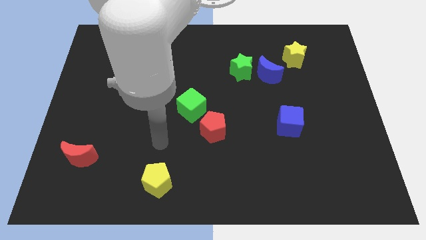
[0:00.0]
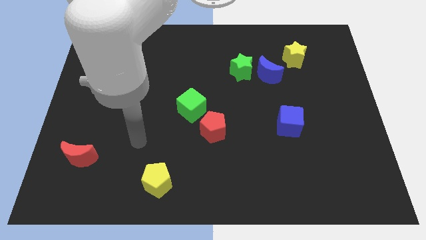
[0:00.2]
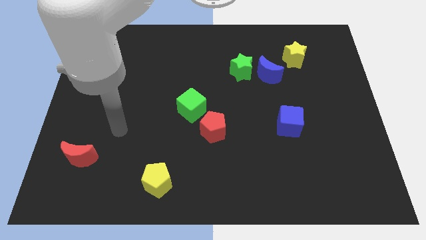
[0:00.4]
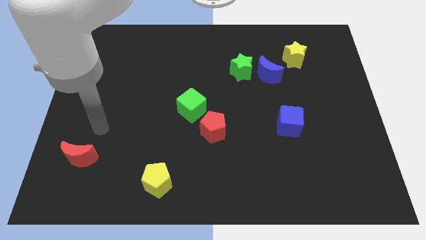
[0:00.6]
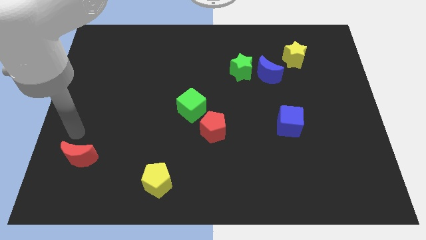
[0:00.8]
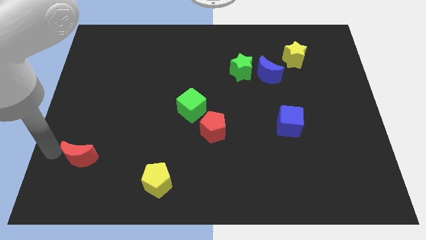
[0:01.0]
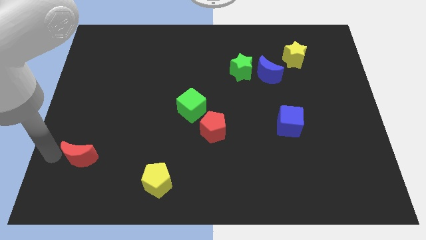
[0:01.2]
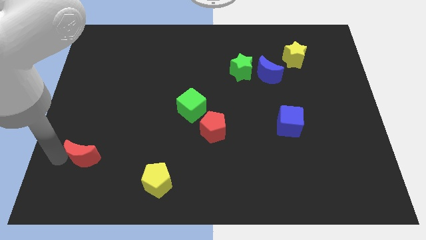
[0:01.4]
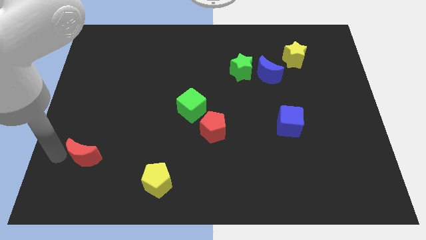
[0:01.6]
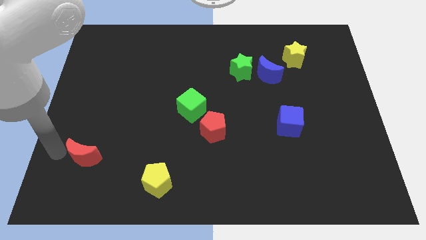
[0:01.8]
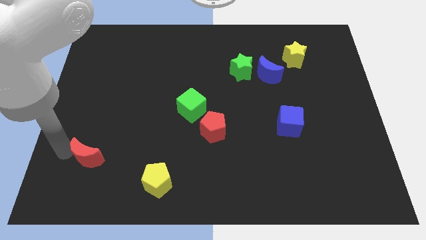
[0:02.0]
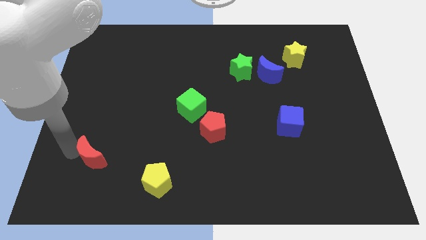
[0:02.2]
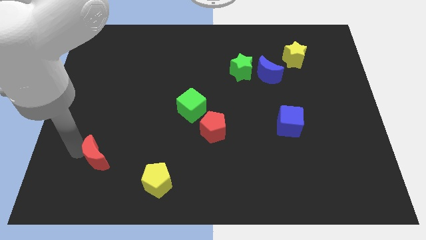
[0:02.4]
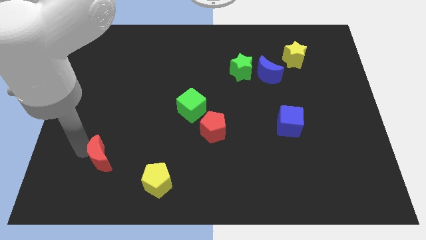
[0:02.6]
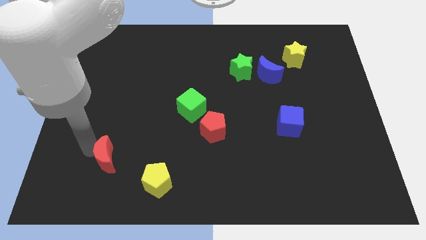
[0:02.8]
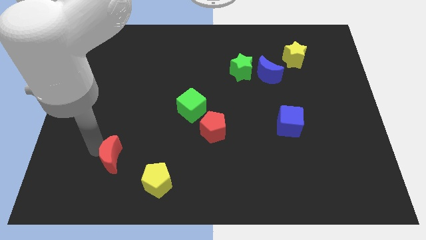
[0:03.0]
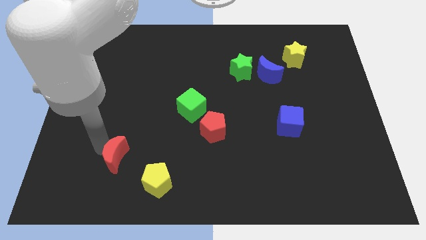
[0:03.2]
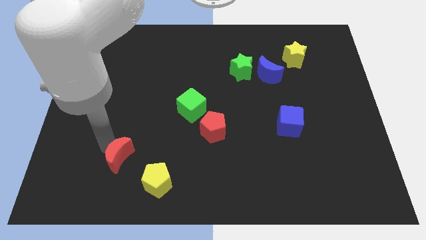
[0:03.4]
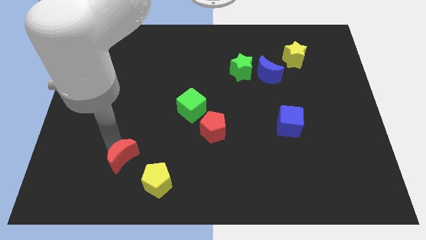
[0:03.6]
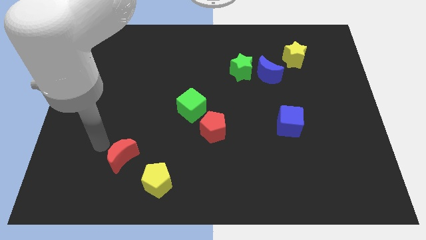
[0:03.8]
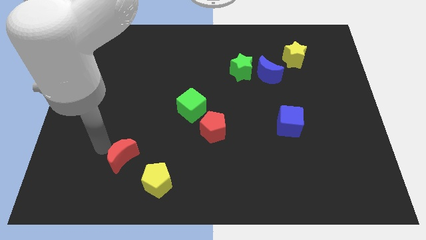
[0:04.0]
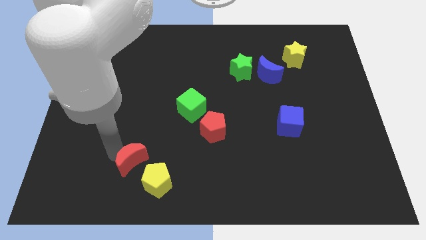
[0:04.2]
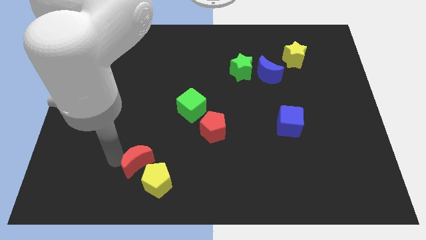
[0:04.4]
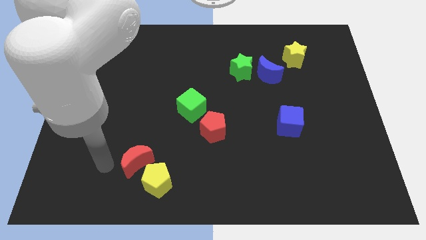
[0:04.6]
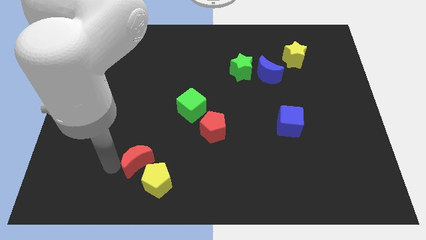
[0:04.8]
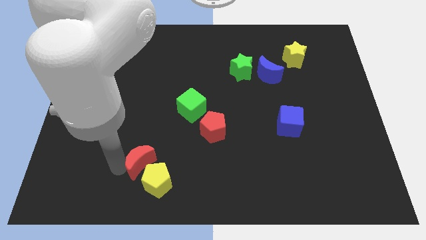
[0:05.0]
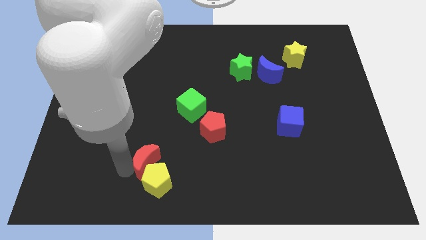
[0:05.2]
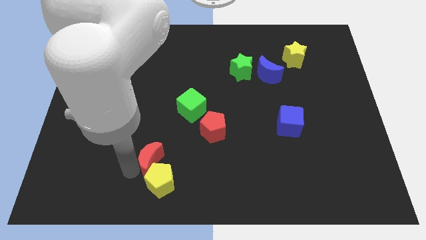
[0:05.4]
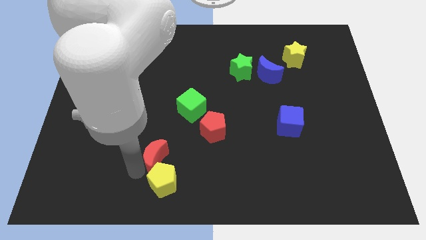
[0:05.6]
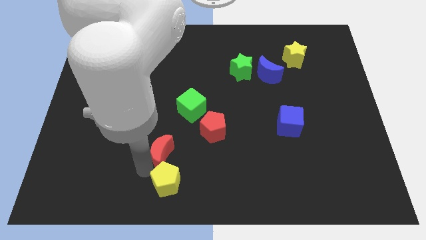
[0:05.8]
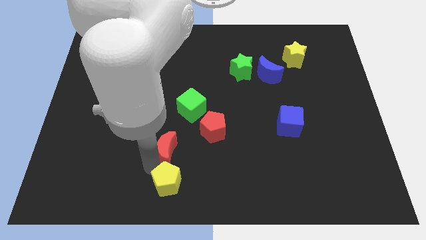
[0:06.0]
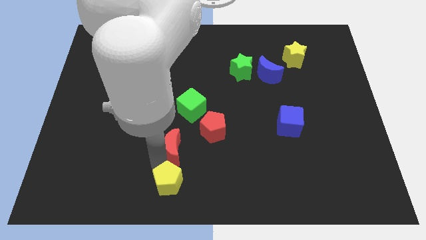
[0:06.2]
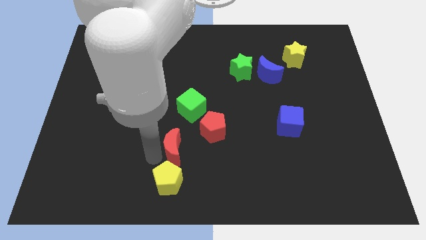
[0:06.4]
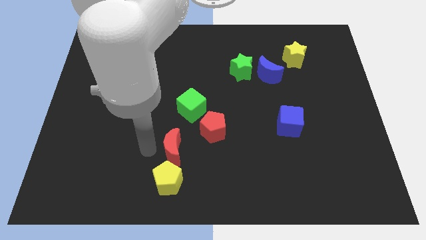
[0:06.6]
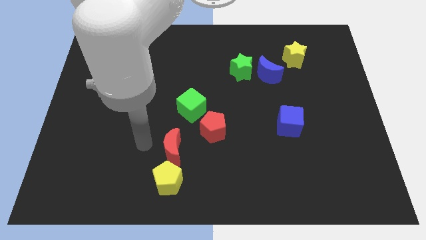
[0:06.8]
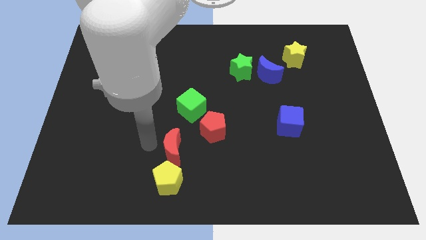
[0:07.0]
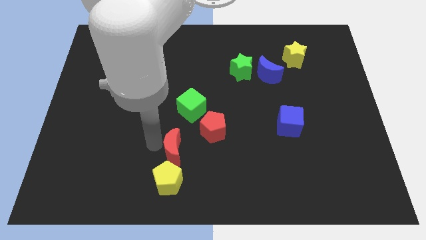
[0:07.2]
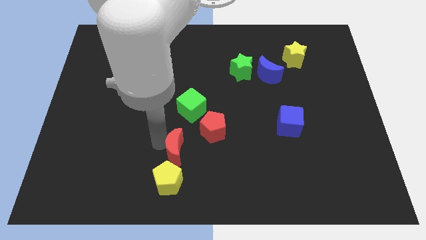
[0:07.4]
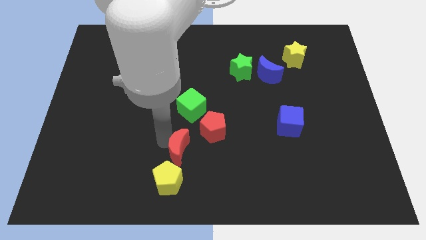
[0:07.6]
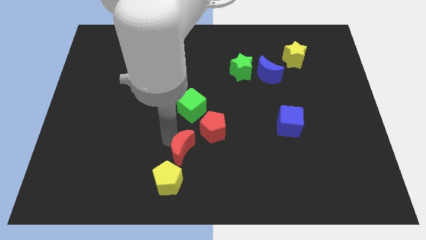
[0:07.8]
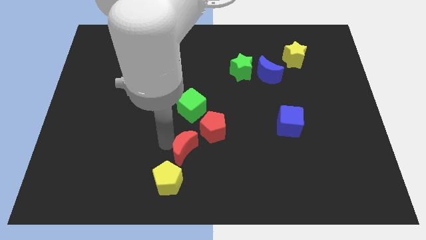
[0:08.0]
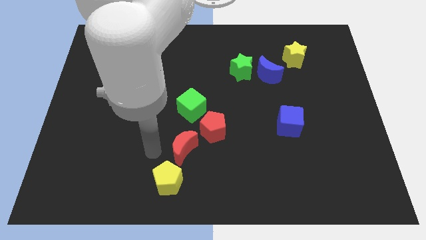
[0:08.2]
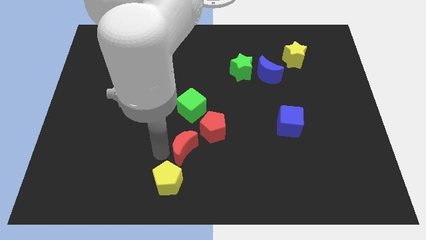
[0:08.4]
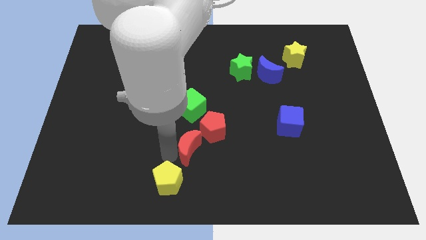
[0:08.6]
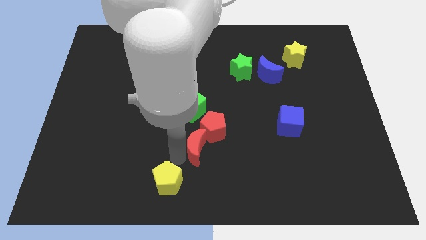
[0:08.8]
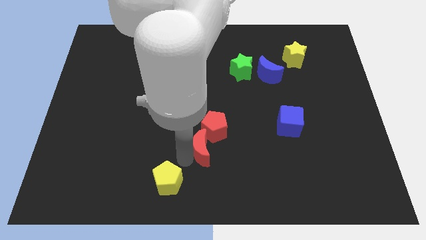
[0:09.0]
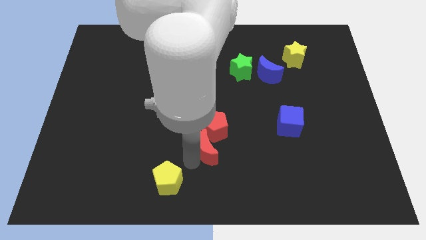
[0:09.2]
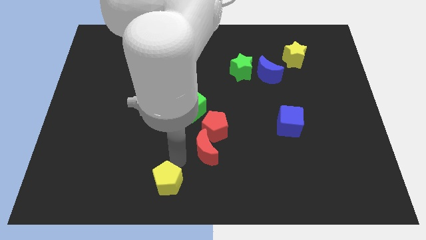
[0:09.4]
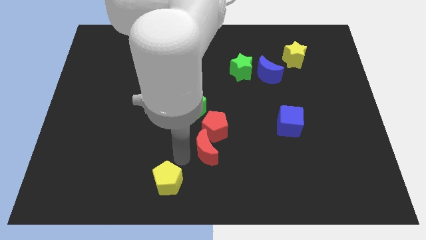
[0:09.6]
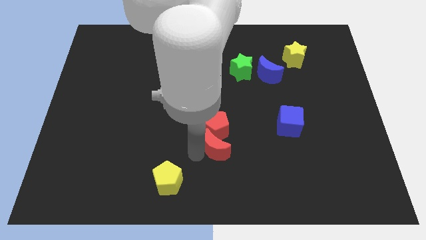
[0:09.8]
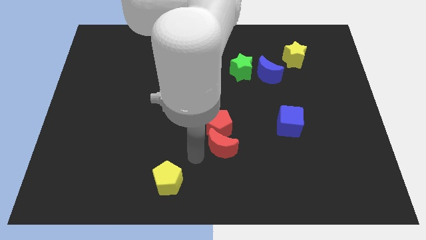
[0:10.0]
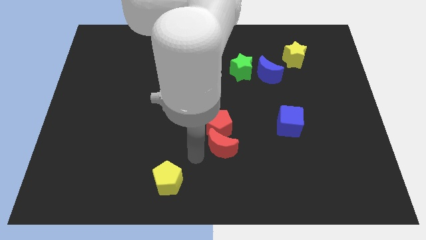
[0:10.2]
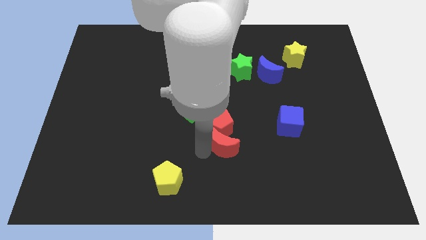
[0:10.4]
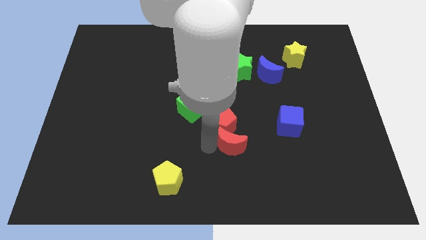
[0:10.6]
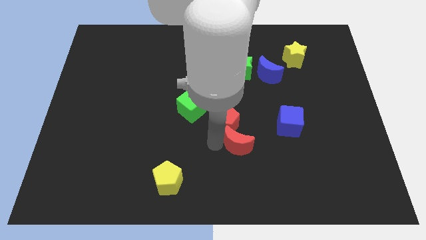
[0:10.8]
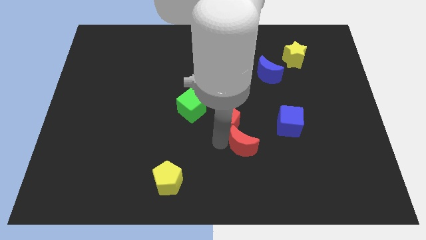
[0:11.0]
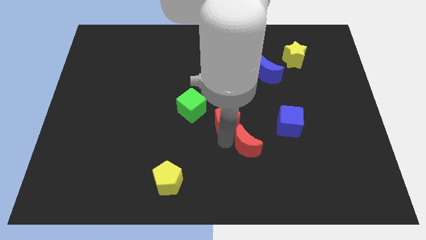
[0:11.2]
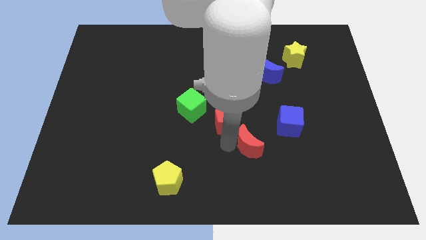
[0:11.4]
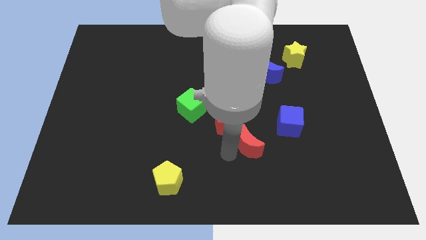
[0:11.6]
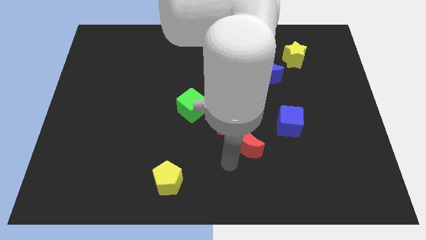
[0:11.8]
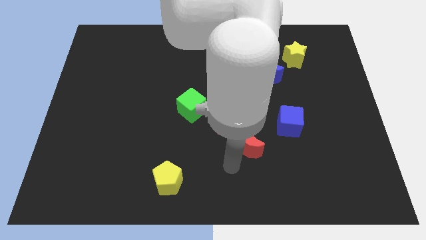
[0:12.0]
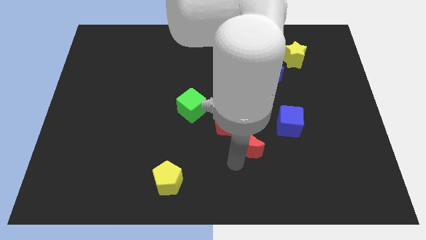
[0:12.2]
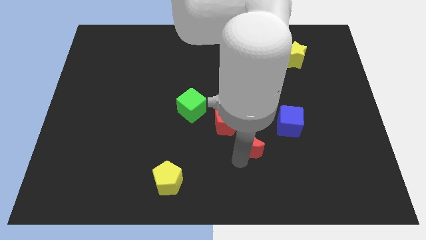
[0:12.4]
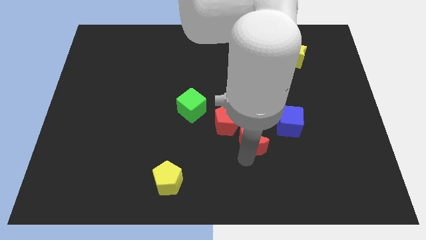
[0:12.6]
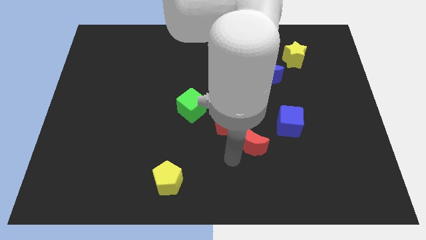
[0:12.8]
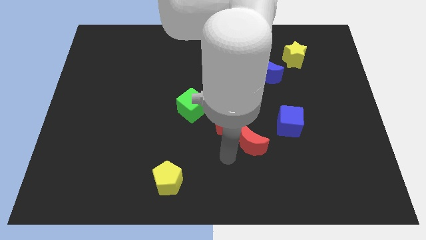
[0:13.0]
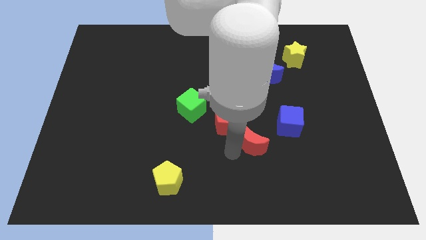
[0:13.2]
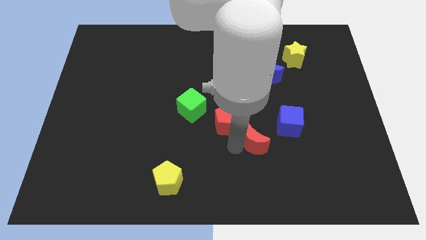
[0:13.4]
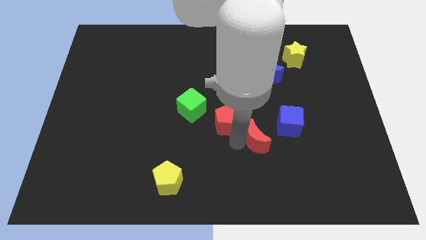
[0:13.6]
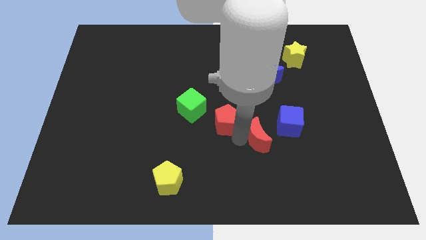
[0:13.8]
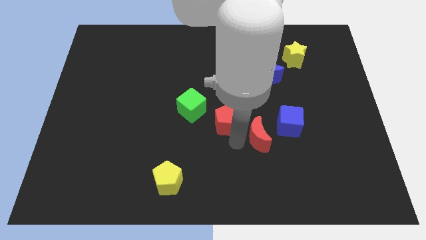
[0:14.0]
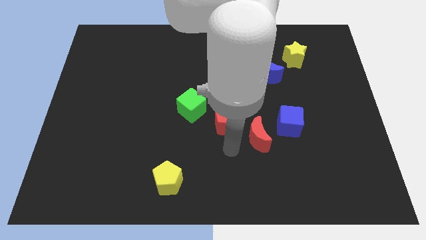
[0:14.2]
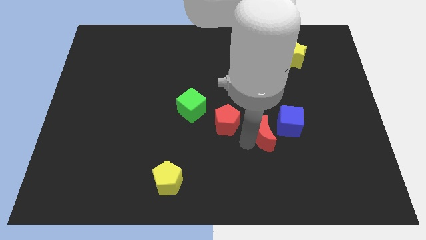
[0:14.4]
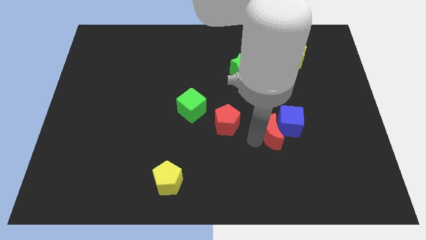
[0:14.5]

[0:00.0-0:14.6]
put the red moon next to the blue cube

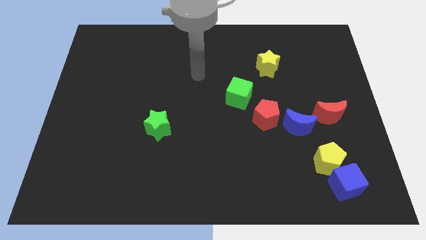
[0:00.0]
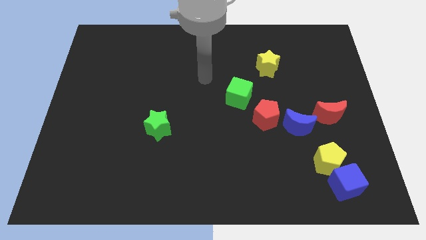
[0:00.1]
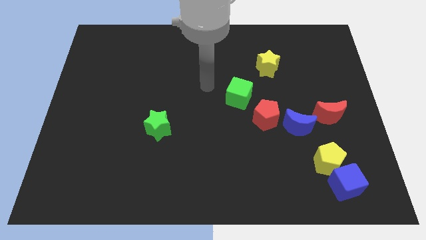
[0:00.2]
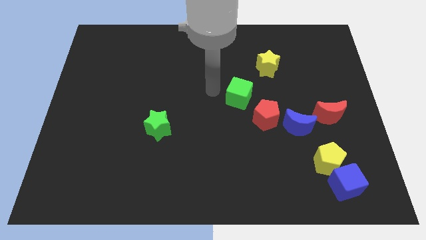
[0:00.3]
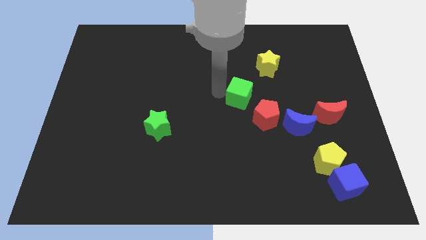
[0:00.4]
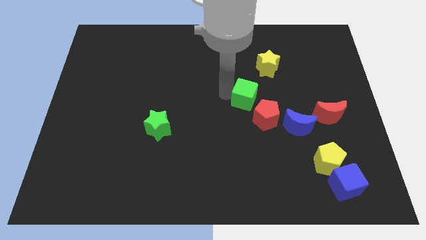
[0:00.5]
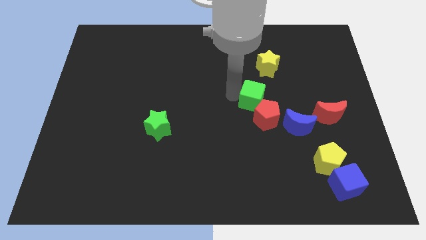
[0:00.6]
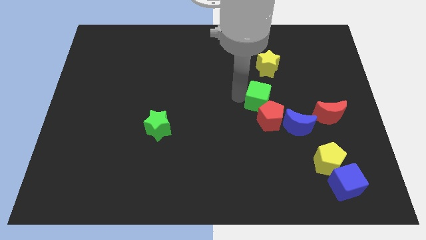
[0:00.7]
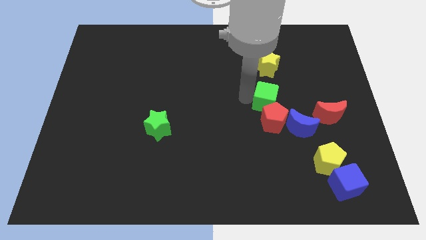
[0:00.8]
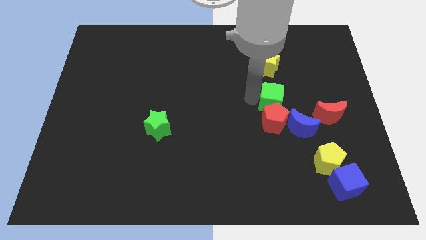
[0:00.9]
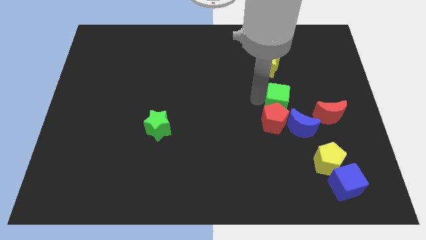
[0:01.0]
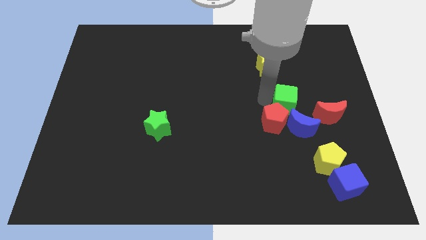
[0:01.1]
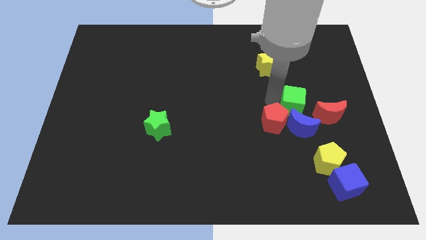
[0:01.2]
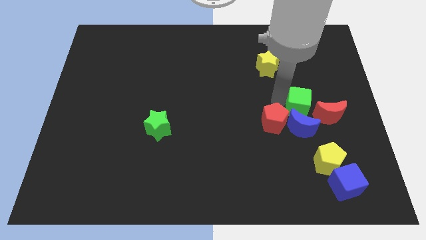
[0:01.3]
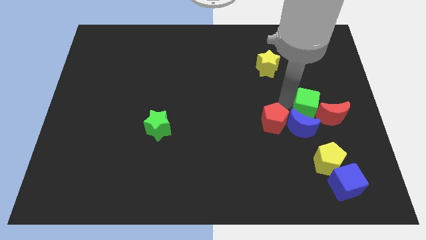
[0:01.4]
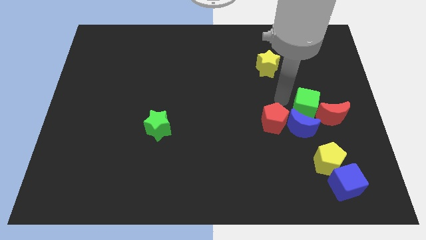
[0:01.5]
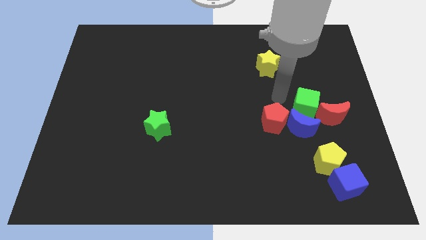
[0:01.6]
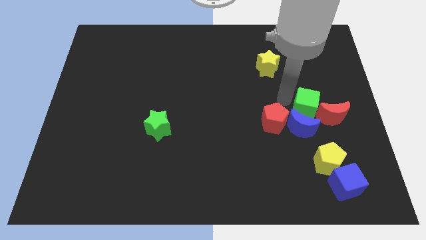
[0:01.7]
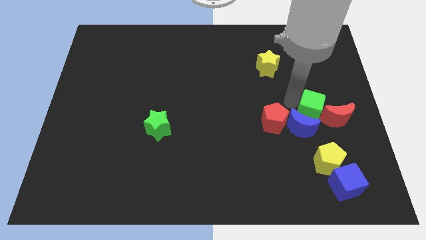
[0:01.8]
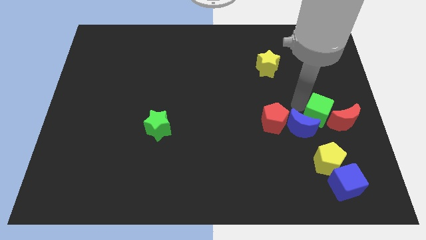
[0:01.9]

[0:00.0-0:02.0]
move the green cube close to the red moon
